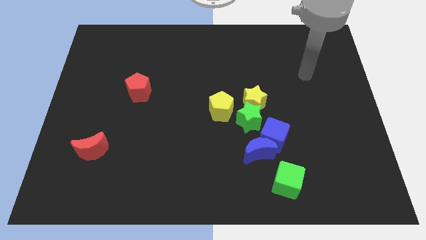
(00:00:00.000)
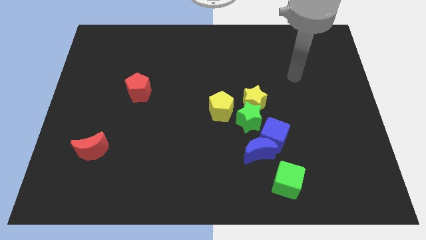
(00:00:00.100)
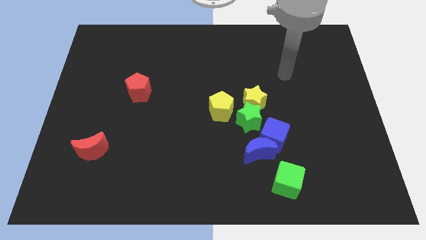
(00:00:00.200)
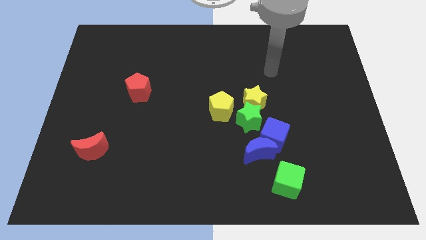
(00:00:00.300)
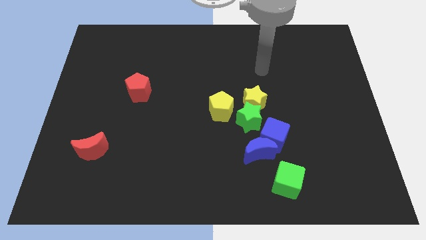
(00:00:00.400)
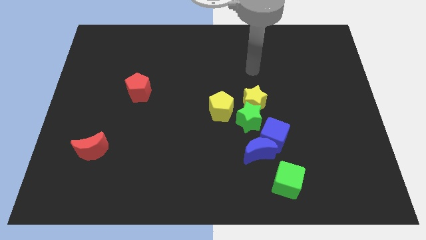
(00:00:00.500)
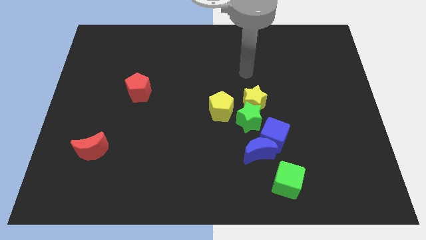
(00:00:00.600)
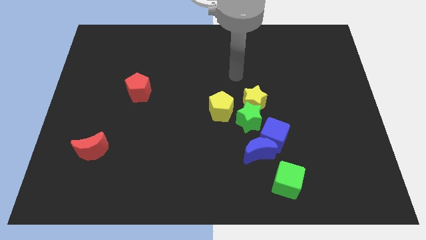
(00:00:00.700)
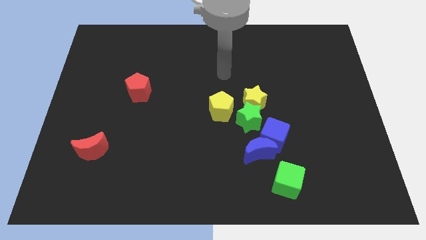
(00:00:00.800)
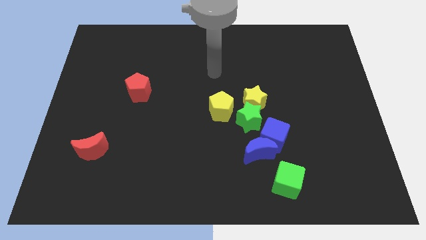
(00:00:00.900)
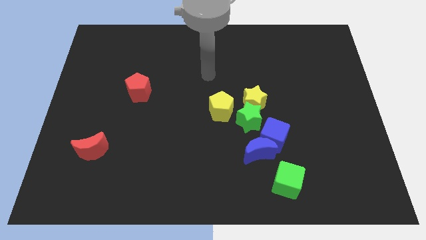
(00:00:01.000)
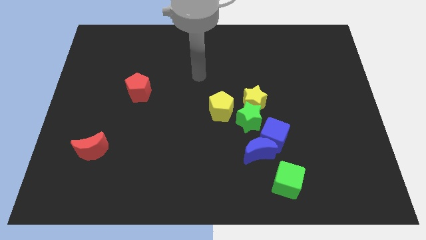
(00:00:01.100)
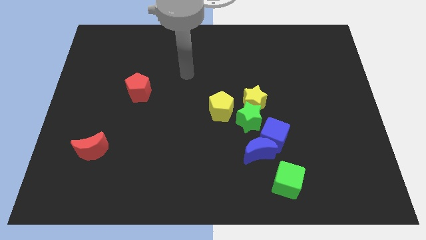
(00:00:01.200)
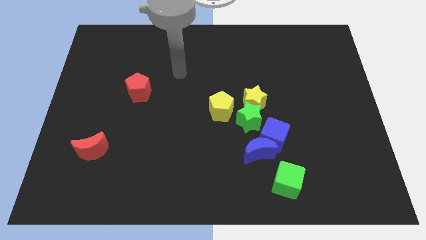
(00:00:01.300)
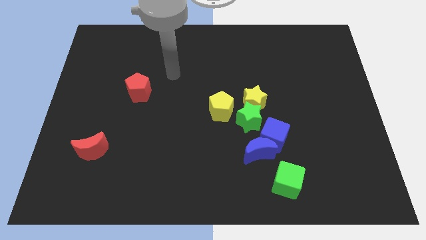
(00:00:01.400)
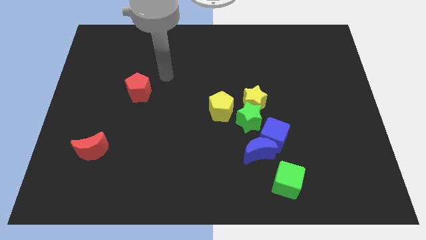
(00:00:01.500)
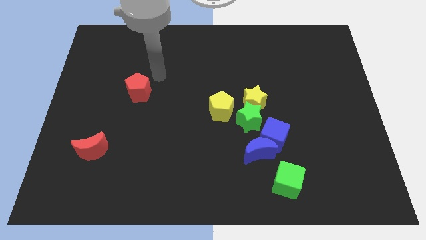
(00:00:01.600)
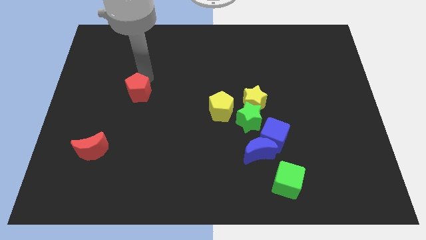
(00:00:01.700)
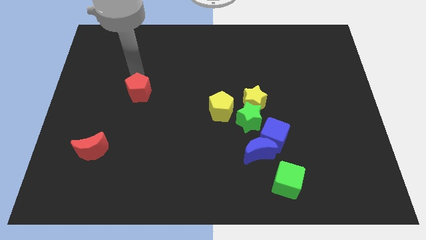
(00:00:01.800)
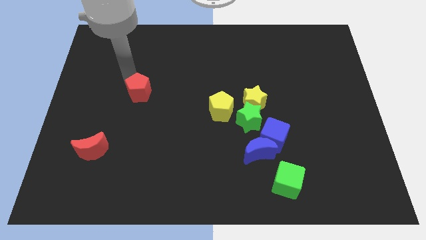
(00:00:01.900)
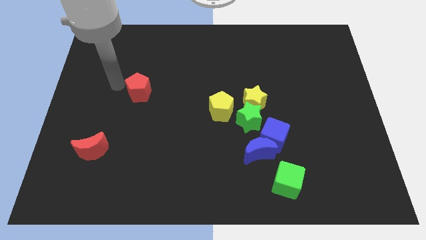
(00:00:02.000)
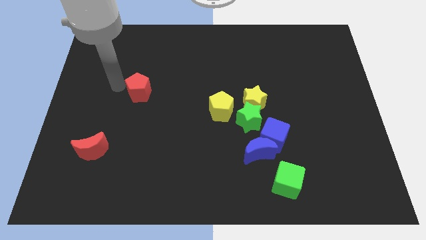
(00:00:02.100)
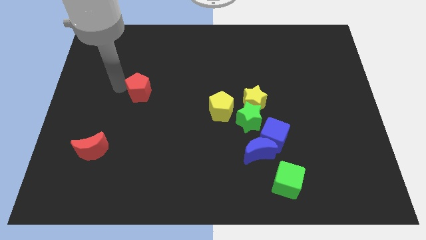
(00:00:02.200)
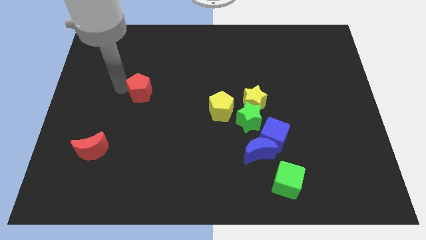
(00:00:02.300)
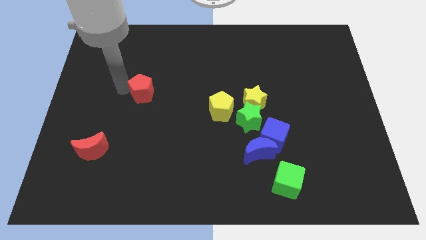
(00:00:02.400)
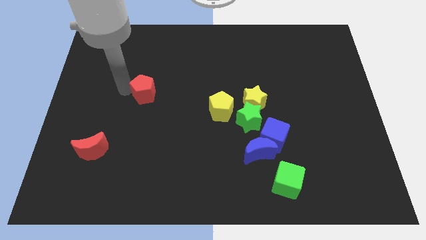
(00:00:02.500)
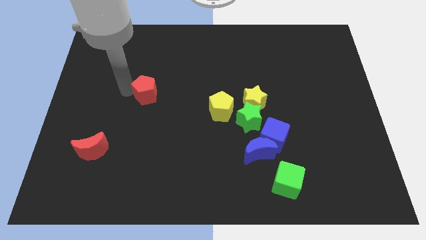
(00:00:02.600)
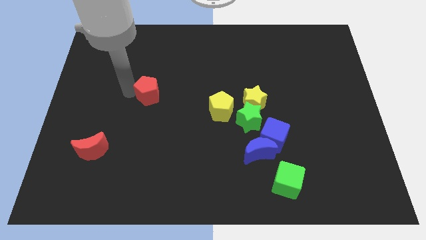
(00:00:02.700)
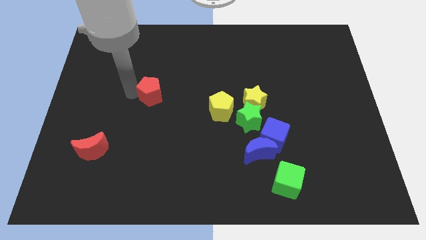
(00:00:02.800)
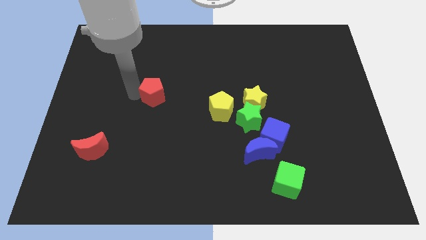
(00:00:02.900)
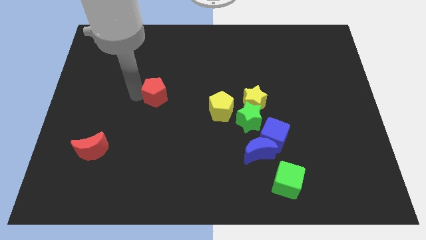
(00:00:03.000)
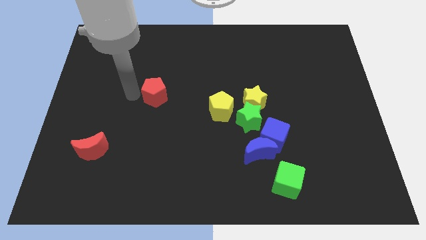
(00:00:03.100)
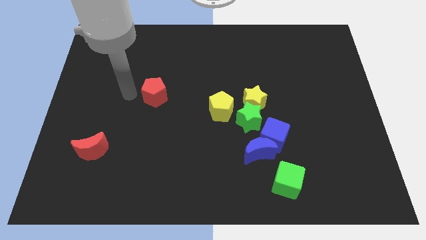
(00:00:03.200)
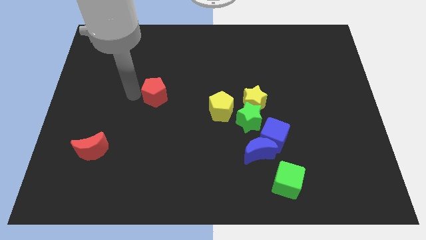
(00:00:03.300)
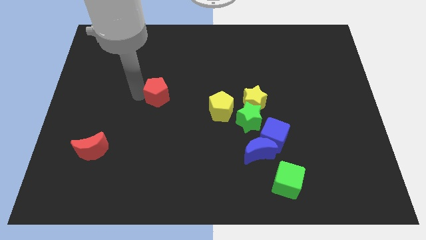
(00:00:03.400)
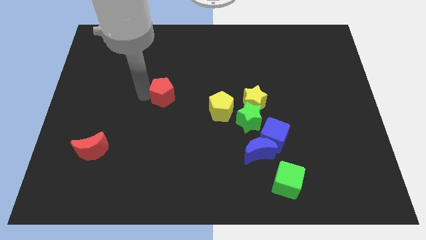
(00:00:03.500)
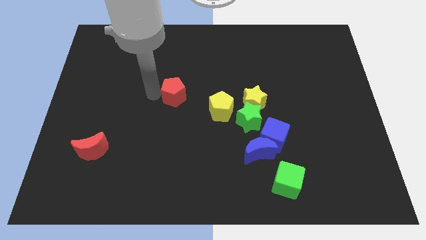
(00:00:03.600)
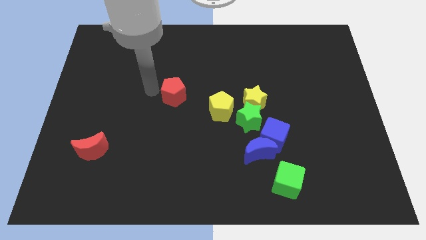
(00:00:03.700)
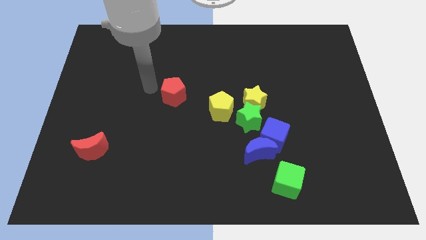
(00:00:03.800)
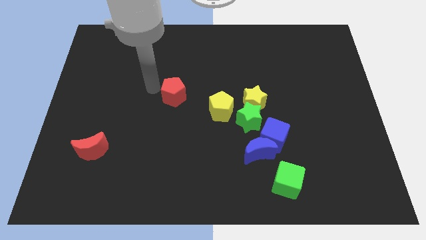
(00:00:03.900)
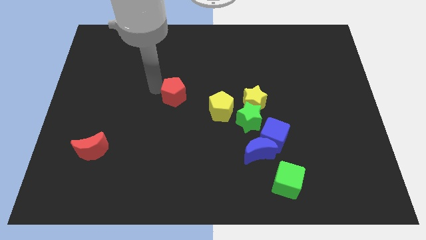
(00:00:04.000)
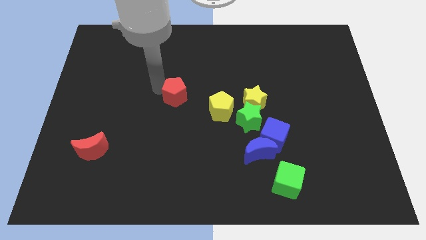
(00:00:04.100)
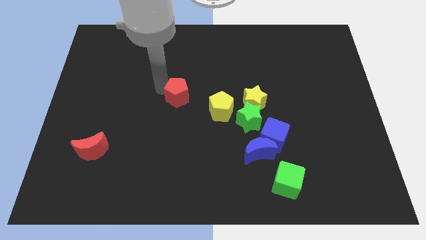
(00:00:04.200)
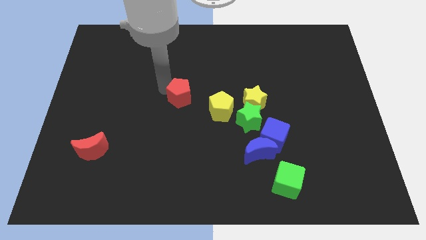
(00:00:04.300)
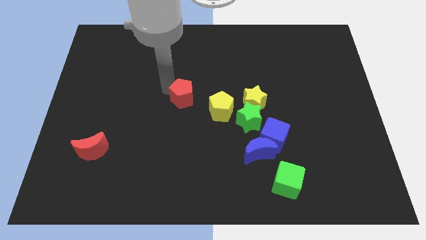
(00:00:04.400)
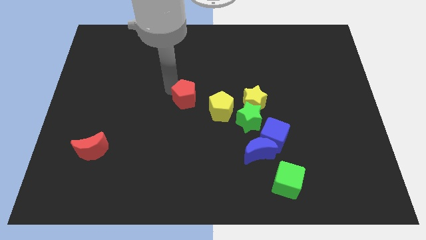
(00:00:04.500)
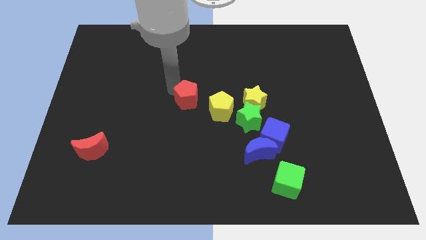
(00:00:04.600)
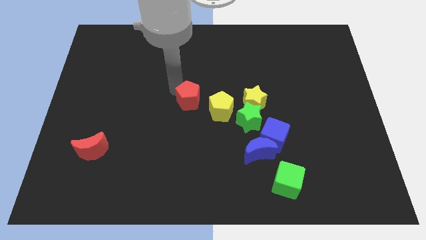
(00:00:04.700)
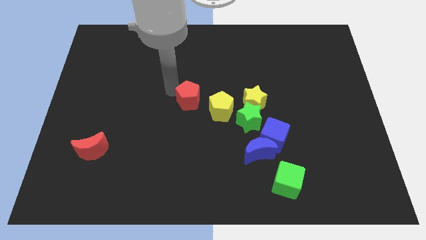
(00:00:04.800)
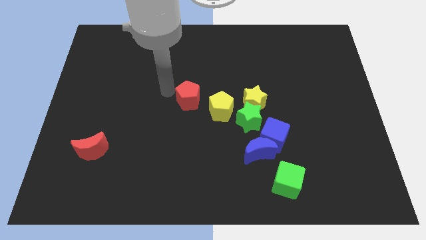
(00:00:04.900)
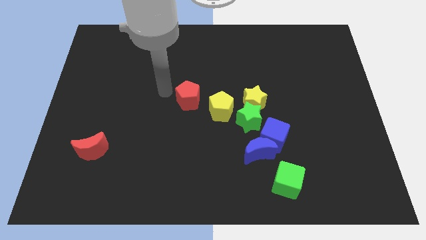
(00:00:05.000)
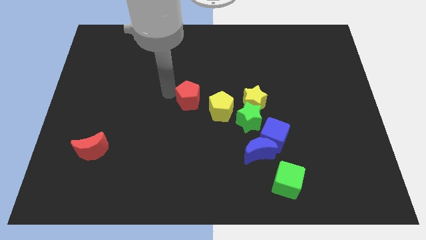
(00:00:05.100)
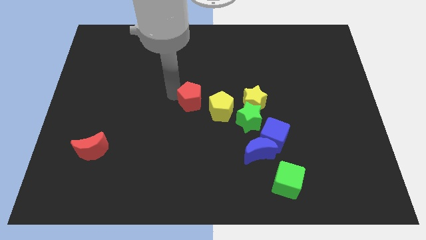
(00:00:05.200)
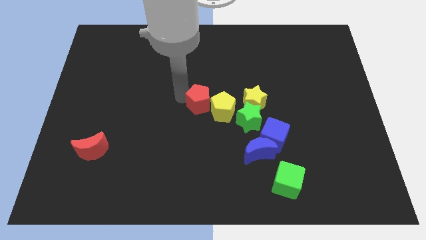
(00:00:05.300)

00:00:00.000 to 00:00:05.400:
put the red pentagon next to the yellow pentagon

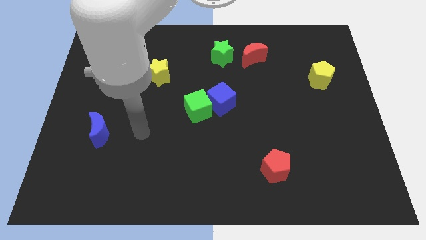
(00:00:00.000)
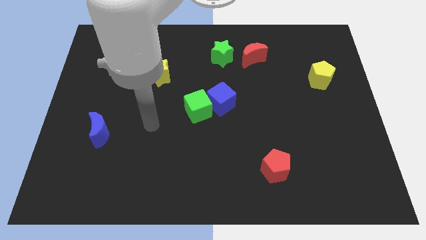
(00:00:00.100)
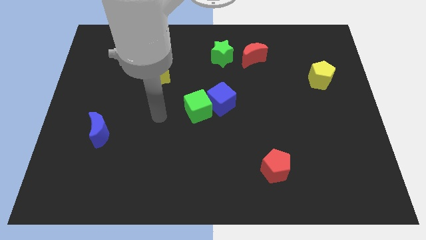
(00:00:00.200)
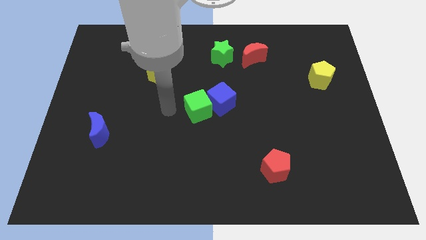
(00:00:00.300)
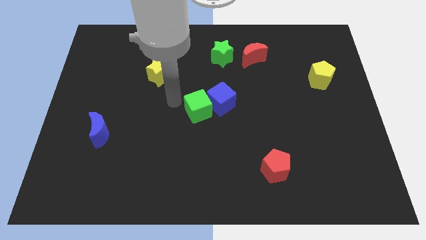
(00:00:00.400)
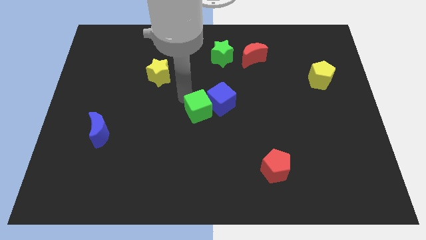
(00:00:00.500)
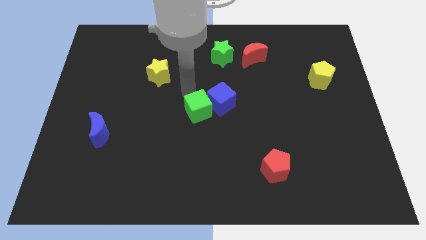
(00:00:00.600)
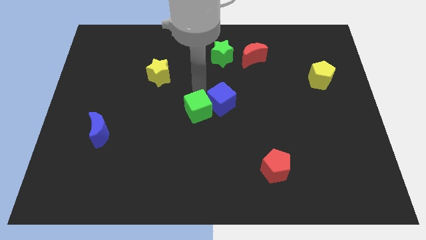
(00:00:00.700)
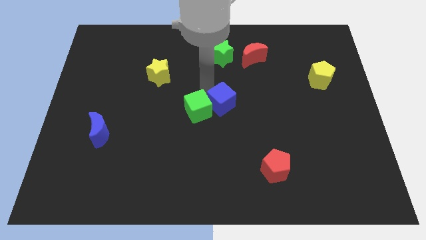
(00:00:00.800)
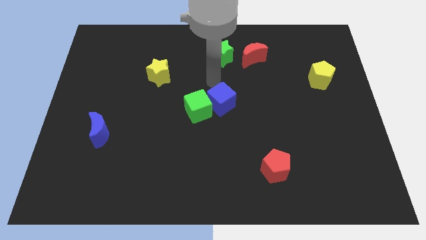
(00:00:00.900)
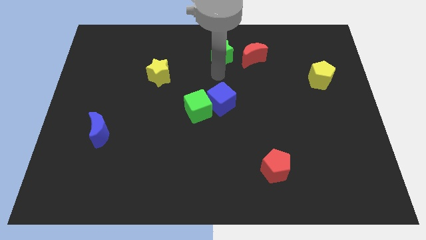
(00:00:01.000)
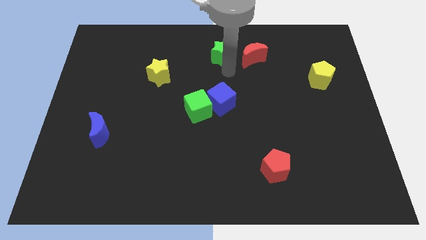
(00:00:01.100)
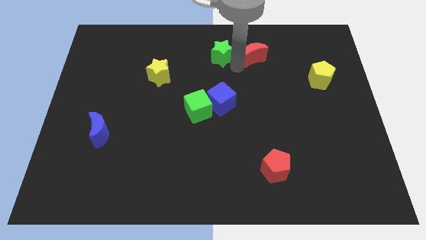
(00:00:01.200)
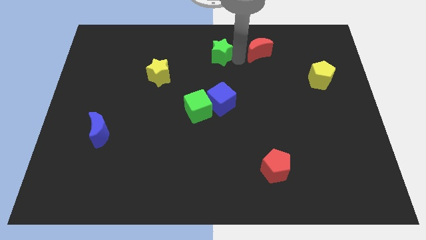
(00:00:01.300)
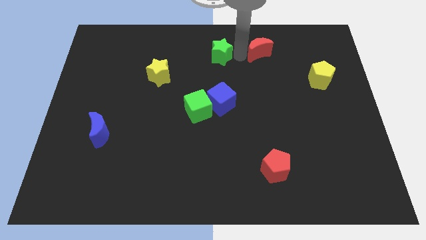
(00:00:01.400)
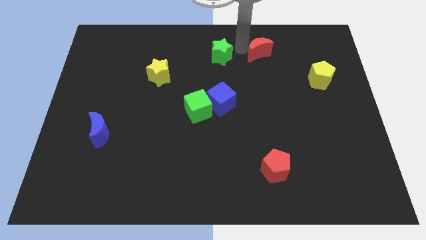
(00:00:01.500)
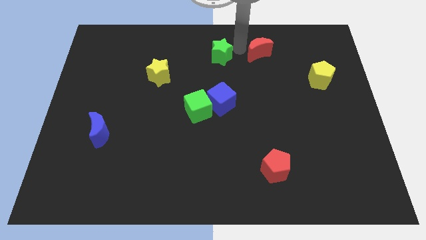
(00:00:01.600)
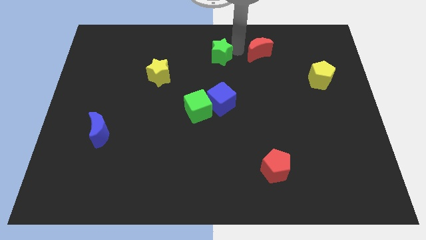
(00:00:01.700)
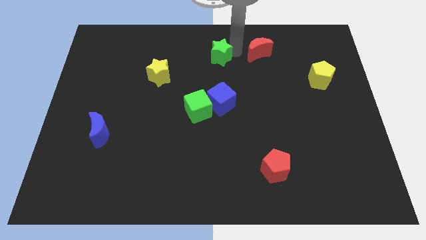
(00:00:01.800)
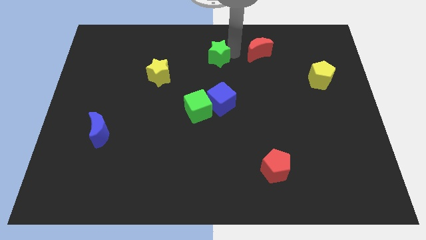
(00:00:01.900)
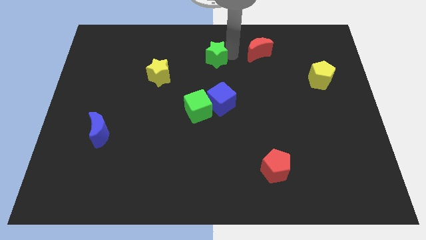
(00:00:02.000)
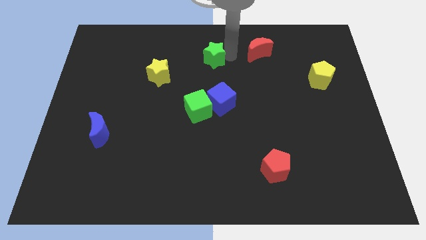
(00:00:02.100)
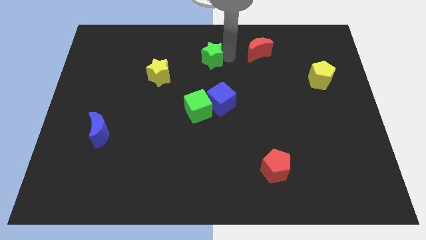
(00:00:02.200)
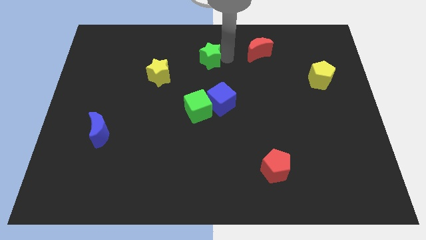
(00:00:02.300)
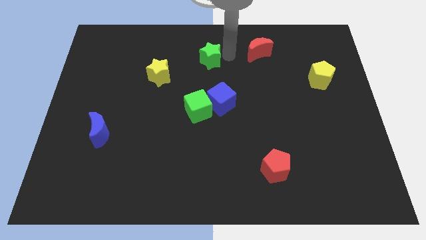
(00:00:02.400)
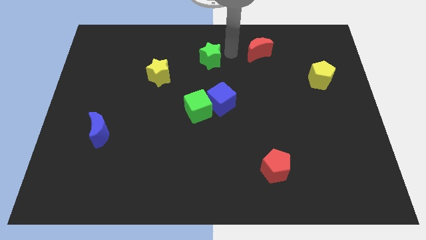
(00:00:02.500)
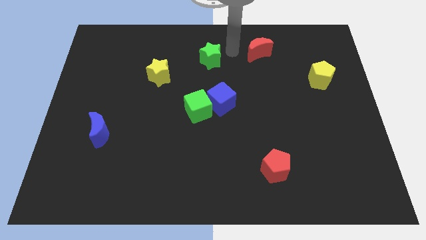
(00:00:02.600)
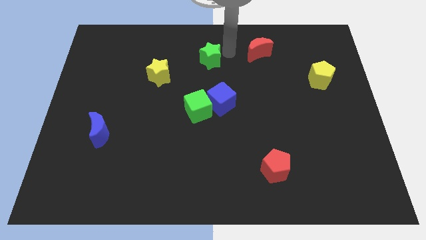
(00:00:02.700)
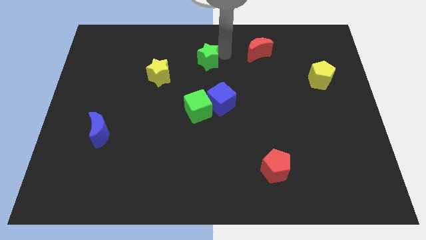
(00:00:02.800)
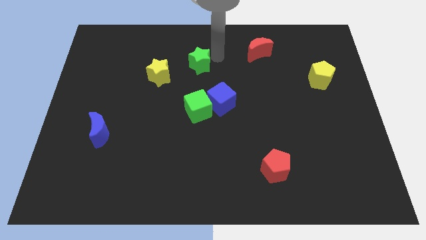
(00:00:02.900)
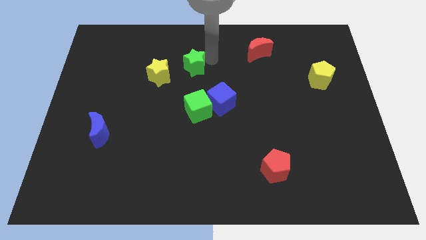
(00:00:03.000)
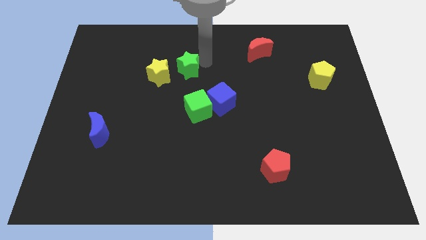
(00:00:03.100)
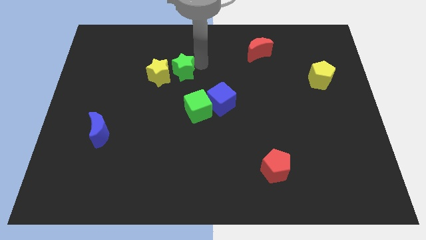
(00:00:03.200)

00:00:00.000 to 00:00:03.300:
move the green star next to the yellow star
